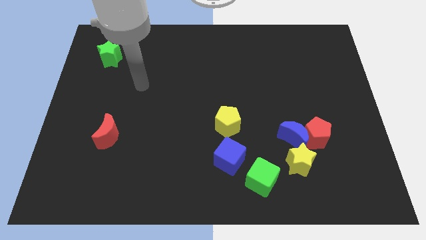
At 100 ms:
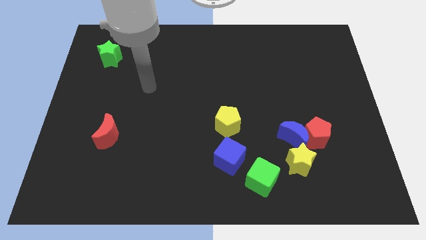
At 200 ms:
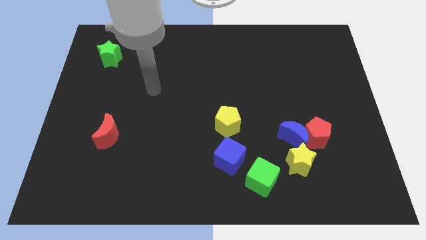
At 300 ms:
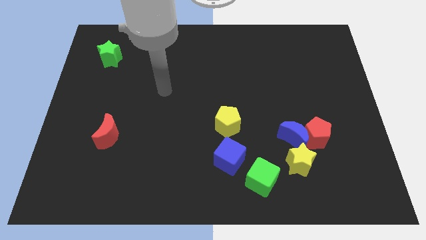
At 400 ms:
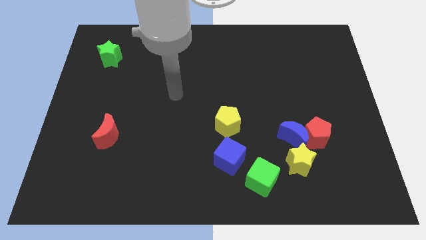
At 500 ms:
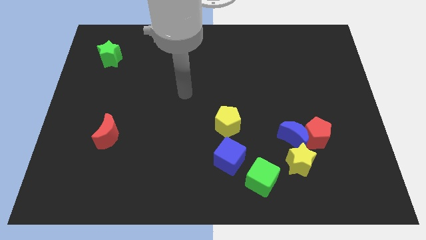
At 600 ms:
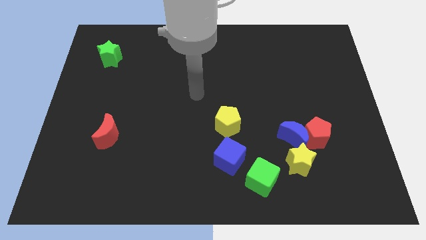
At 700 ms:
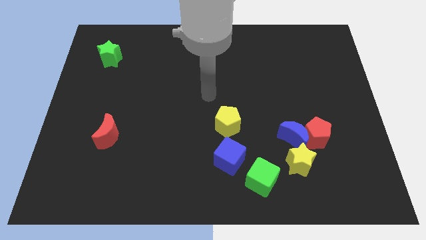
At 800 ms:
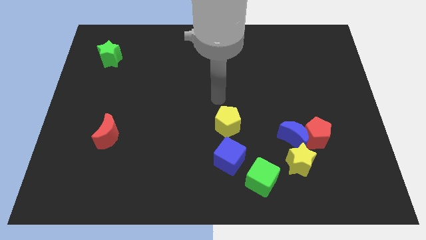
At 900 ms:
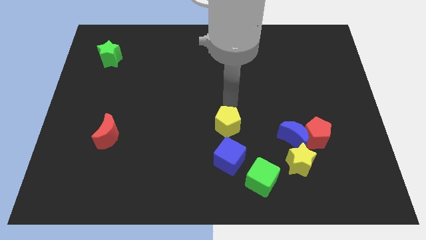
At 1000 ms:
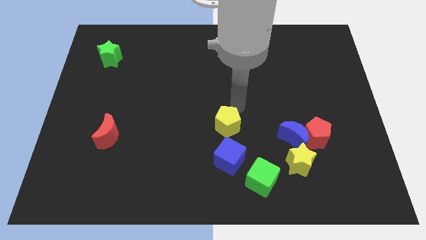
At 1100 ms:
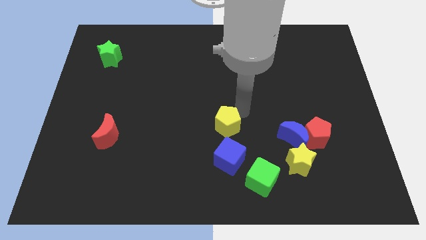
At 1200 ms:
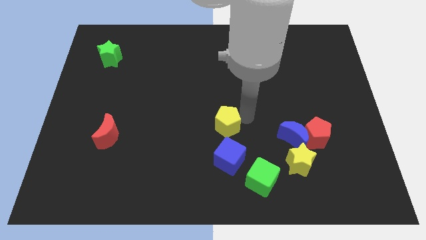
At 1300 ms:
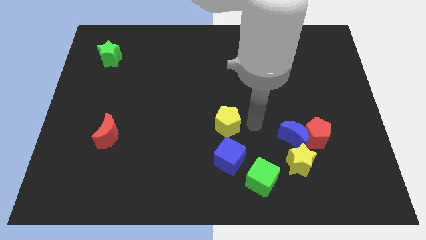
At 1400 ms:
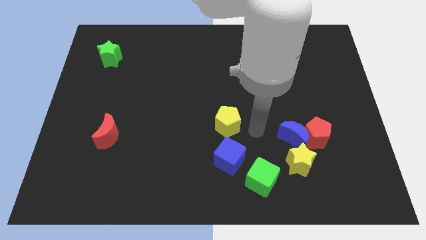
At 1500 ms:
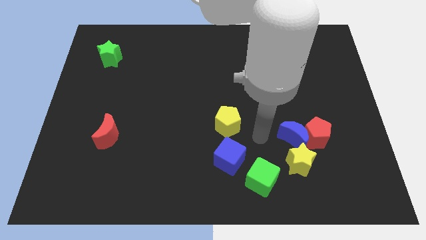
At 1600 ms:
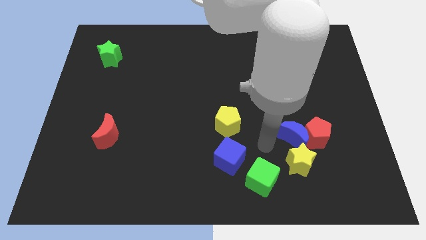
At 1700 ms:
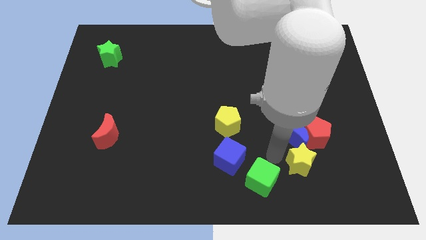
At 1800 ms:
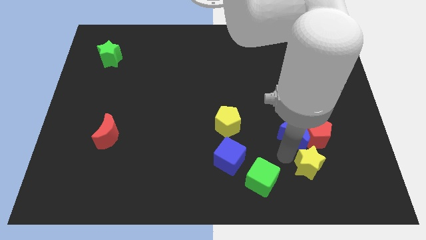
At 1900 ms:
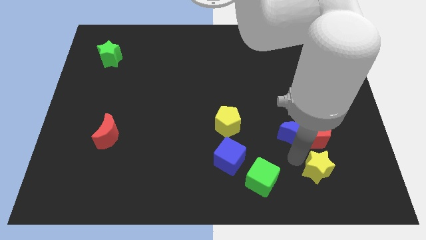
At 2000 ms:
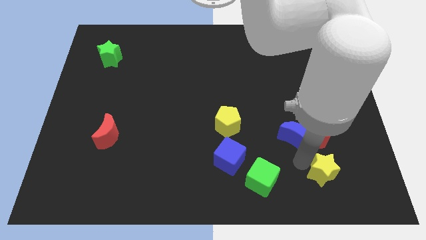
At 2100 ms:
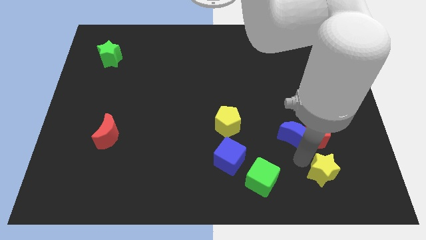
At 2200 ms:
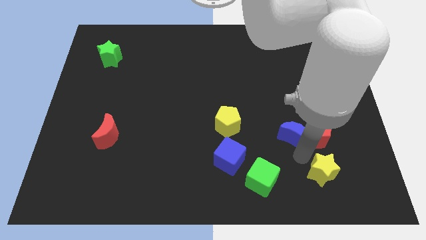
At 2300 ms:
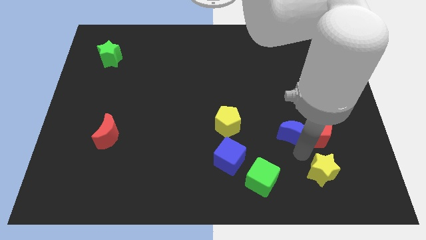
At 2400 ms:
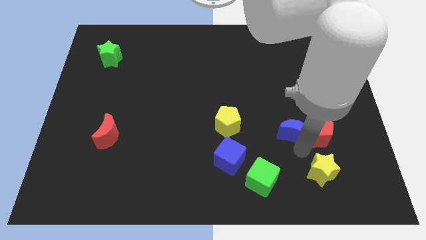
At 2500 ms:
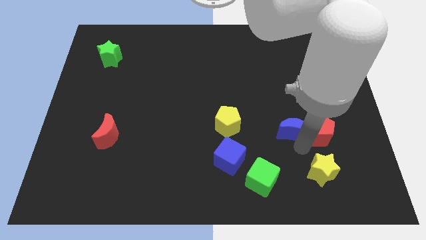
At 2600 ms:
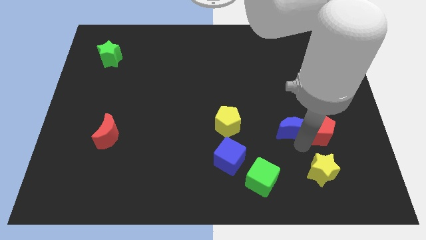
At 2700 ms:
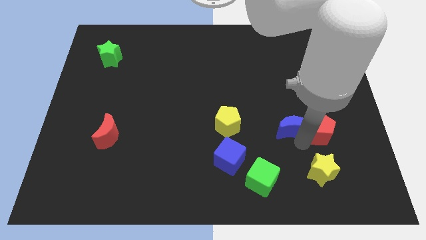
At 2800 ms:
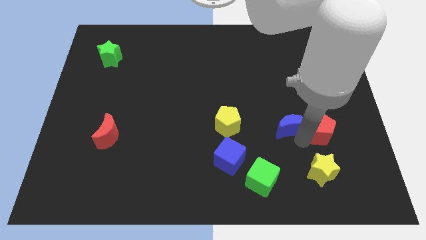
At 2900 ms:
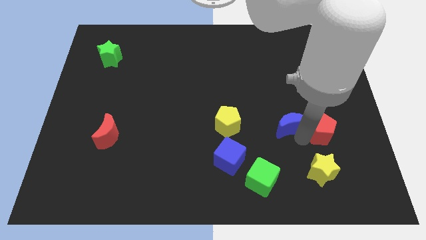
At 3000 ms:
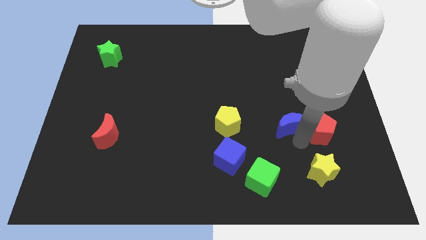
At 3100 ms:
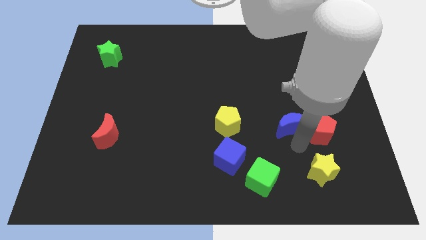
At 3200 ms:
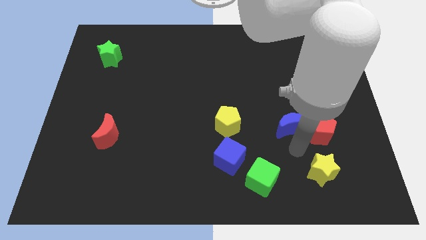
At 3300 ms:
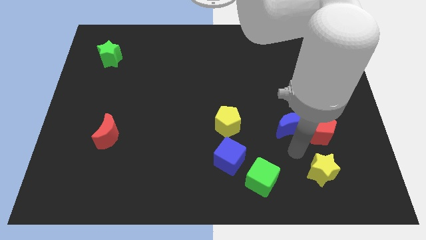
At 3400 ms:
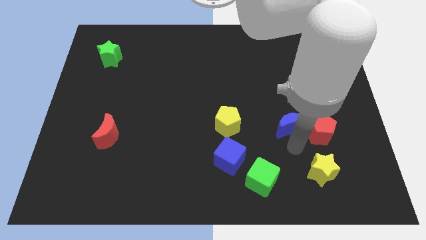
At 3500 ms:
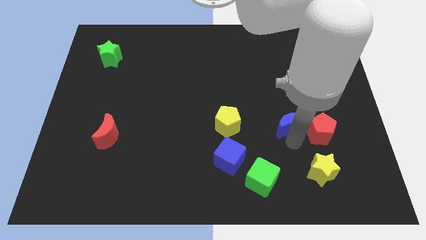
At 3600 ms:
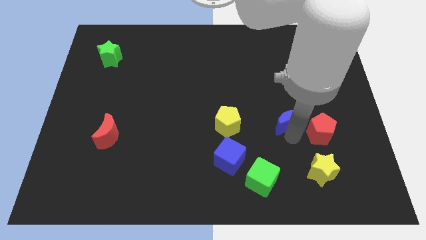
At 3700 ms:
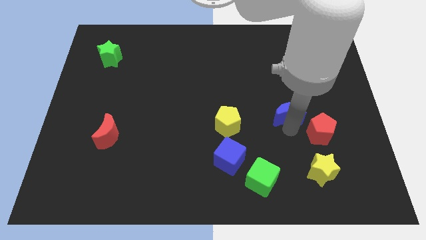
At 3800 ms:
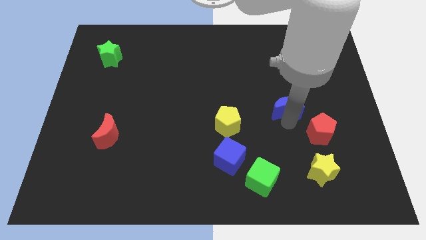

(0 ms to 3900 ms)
move the blue moon upwards a little bit

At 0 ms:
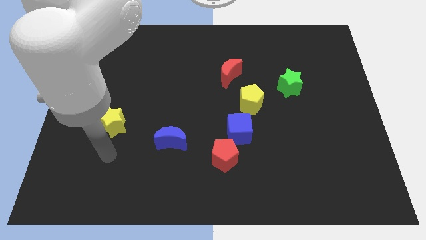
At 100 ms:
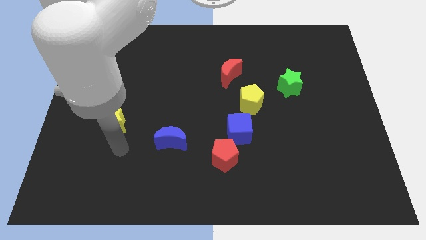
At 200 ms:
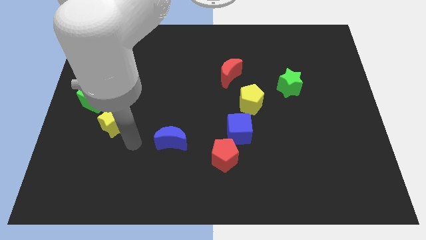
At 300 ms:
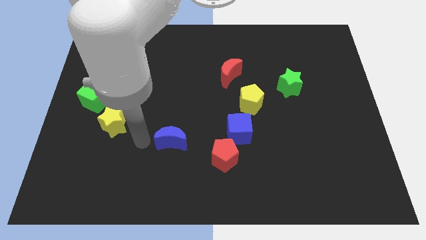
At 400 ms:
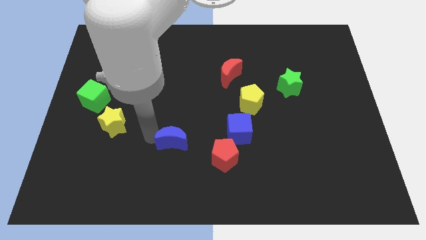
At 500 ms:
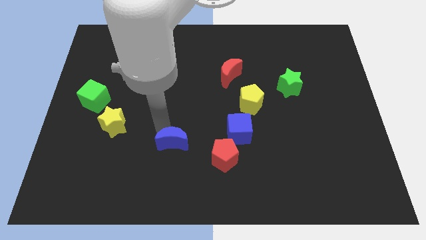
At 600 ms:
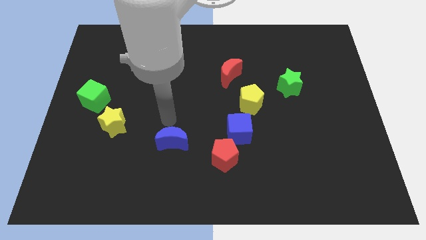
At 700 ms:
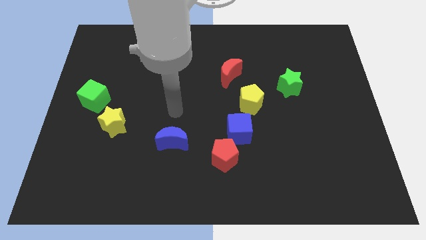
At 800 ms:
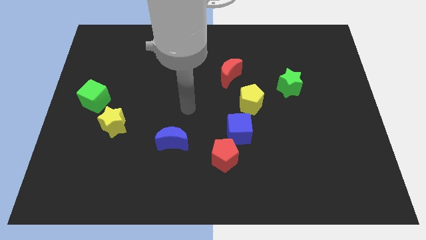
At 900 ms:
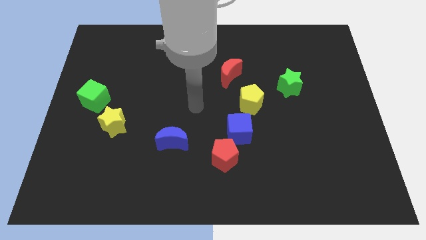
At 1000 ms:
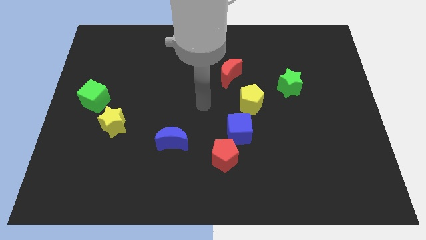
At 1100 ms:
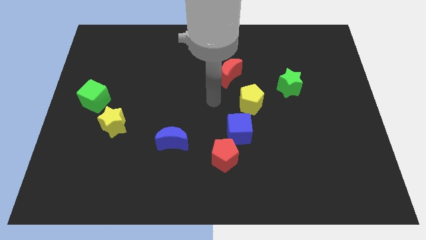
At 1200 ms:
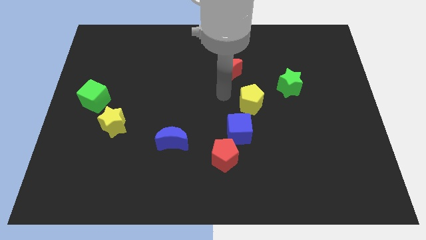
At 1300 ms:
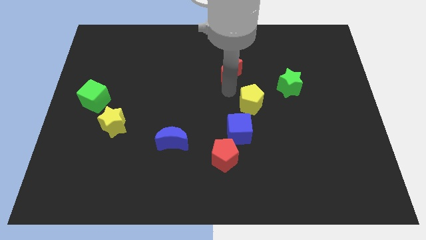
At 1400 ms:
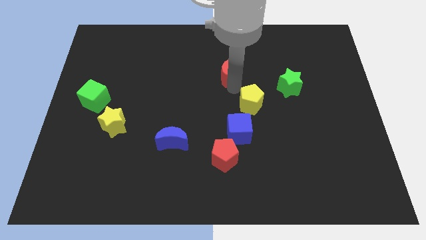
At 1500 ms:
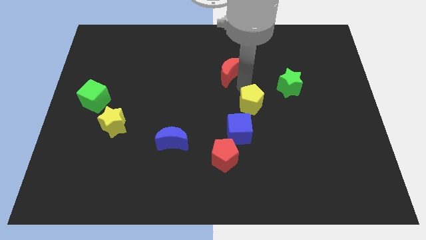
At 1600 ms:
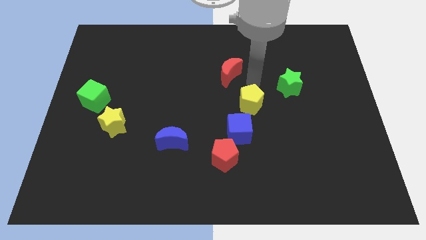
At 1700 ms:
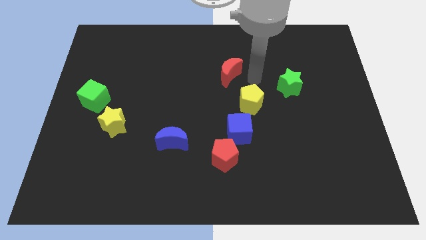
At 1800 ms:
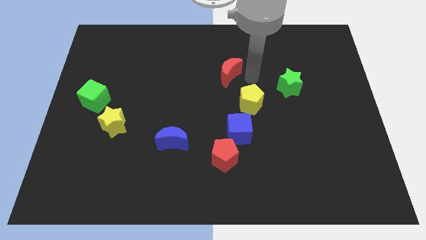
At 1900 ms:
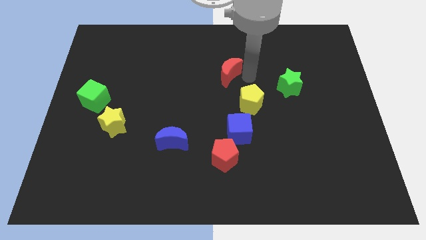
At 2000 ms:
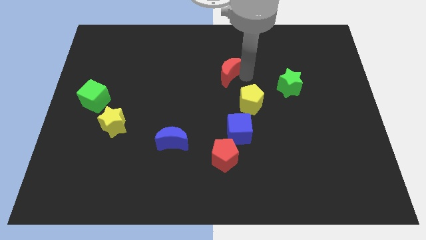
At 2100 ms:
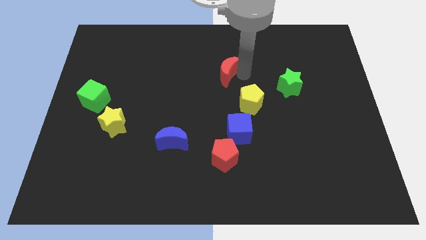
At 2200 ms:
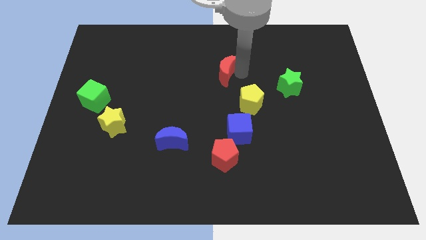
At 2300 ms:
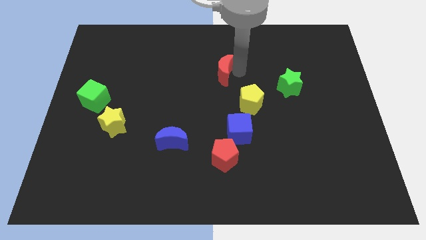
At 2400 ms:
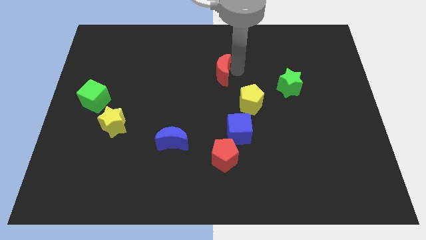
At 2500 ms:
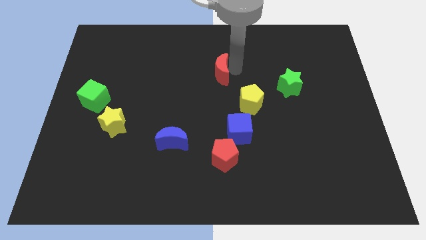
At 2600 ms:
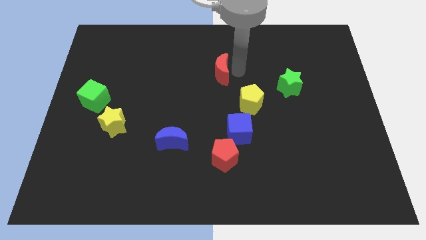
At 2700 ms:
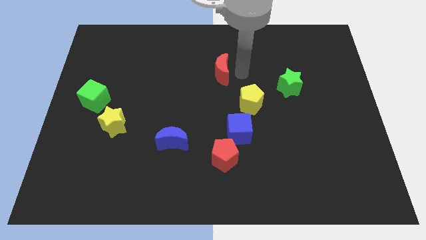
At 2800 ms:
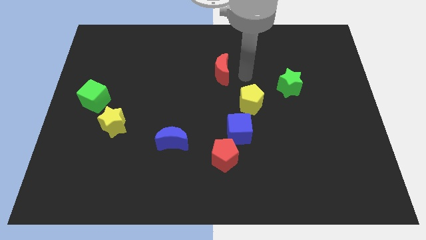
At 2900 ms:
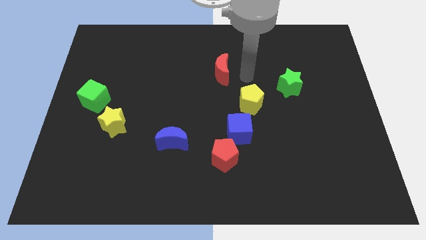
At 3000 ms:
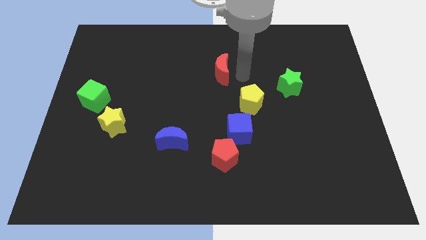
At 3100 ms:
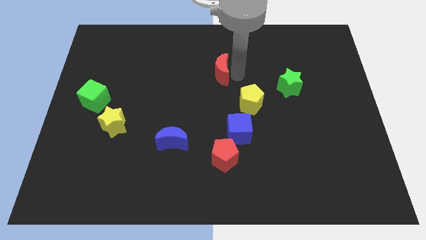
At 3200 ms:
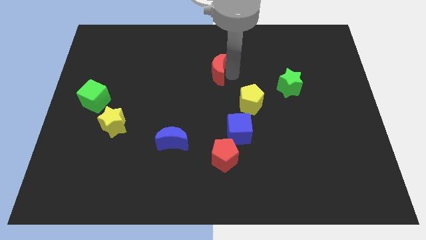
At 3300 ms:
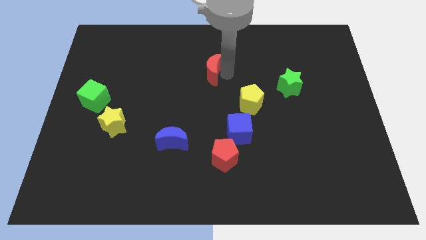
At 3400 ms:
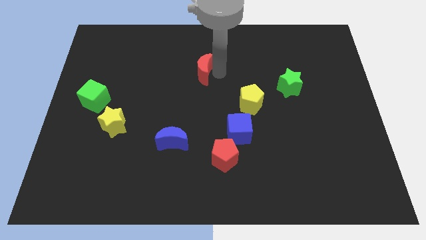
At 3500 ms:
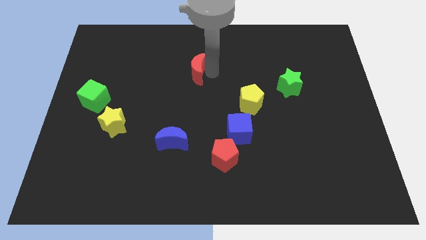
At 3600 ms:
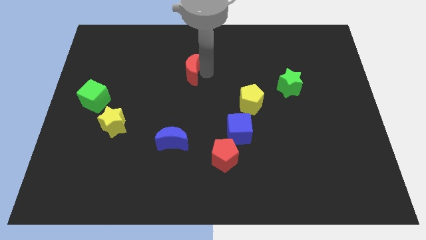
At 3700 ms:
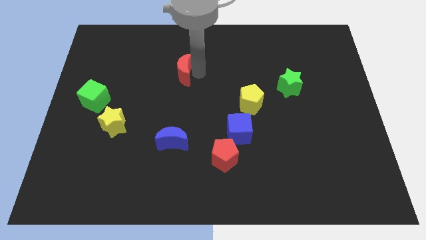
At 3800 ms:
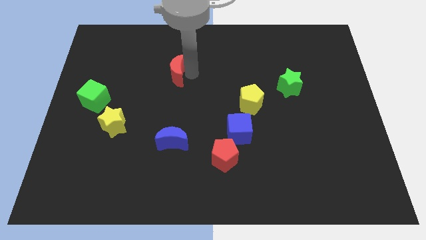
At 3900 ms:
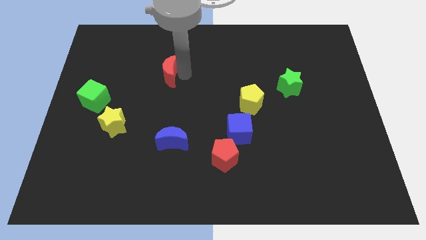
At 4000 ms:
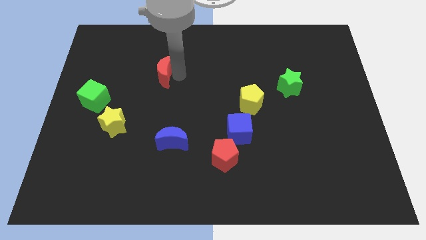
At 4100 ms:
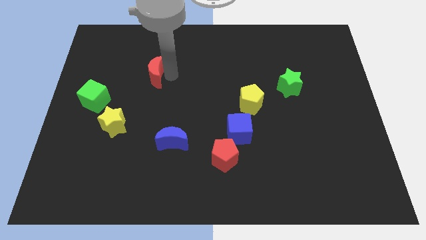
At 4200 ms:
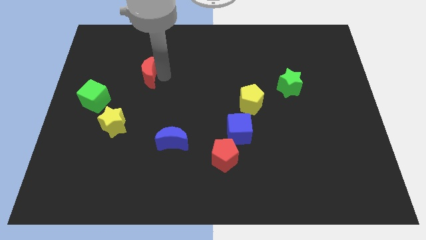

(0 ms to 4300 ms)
slide the red moon left

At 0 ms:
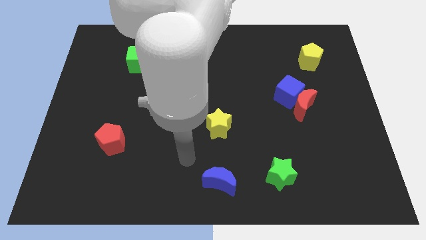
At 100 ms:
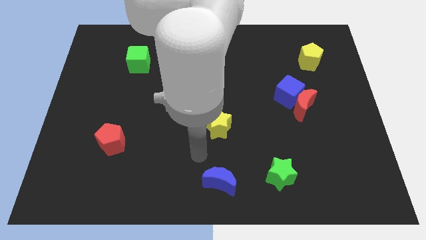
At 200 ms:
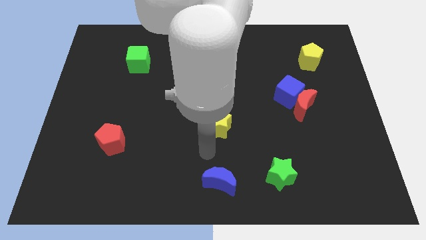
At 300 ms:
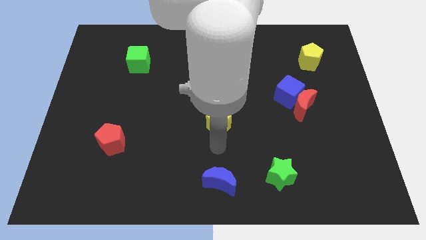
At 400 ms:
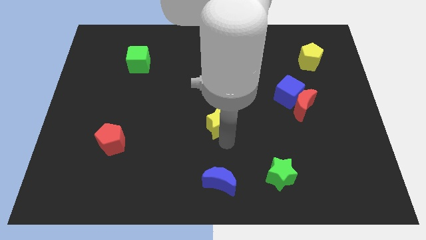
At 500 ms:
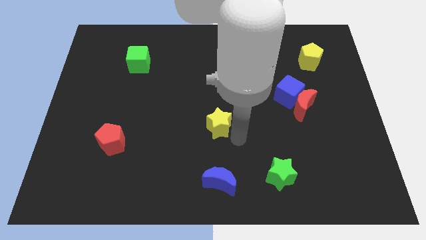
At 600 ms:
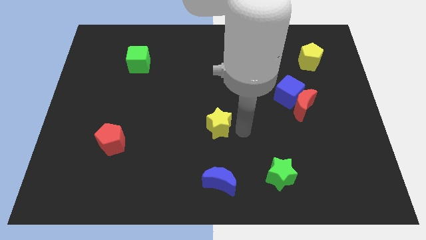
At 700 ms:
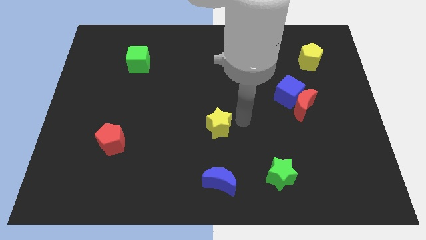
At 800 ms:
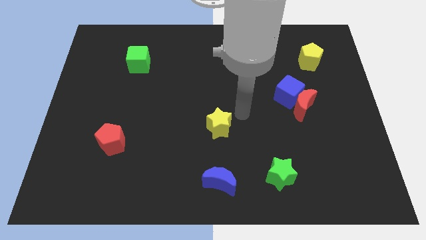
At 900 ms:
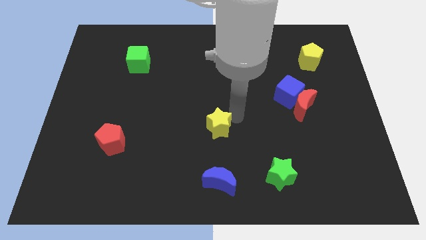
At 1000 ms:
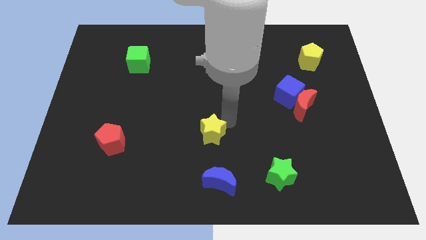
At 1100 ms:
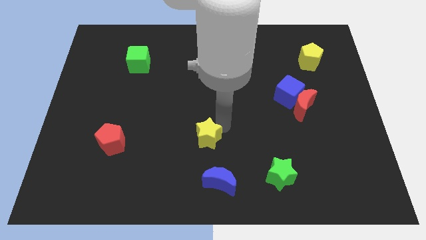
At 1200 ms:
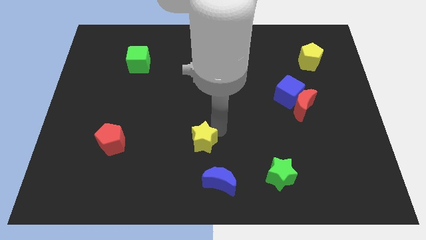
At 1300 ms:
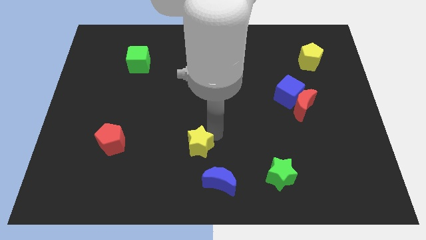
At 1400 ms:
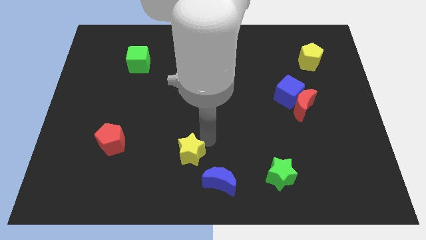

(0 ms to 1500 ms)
slide the yellow star a little down and left
